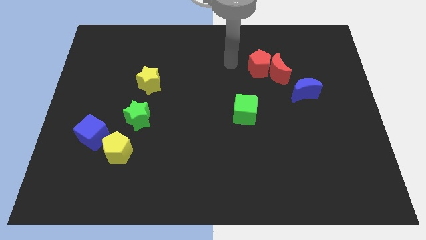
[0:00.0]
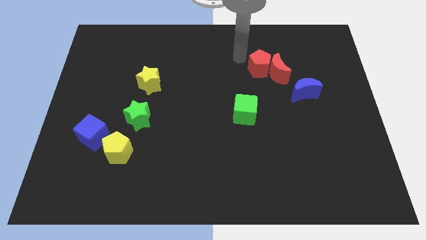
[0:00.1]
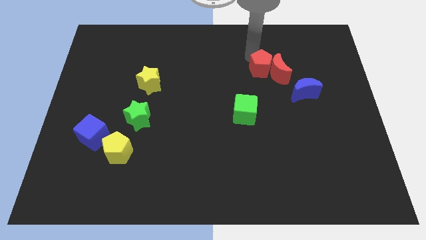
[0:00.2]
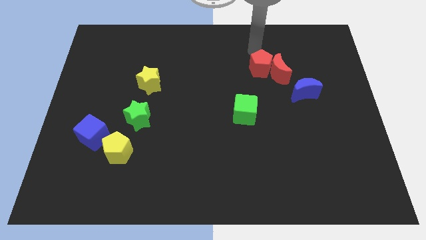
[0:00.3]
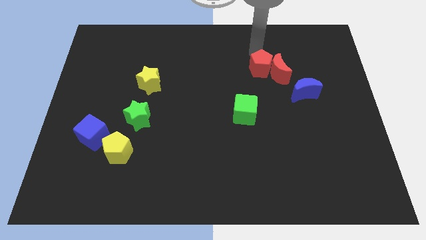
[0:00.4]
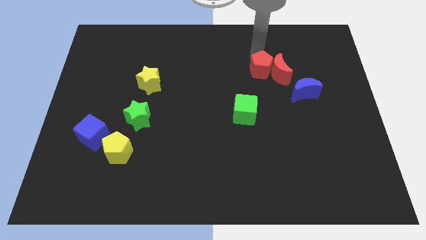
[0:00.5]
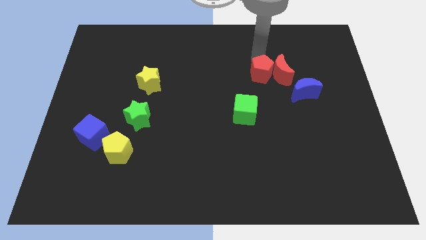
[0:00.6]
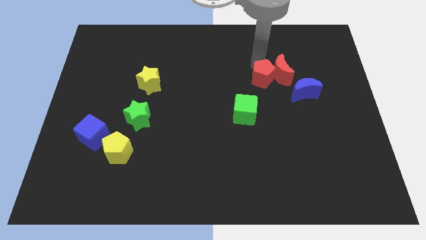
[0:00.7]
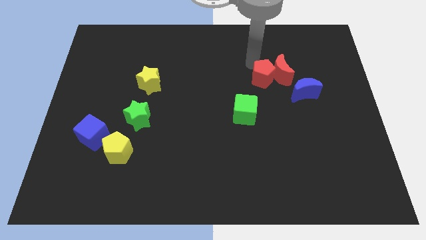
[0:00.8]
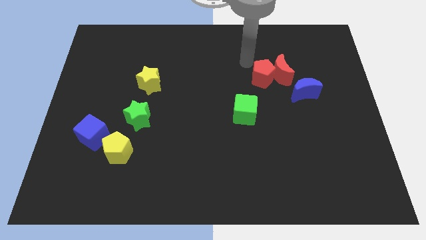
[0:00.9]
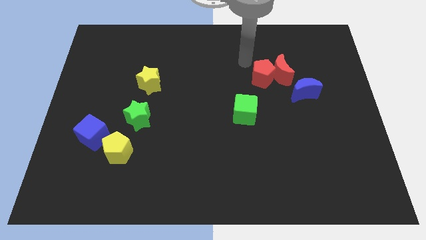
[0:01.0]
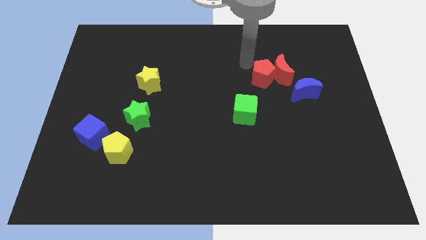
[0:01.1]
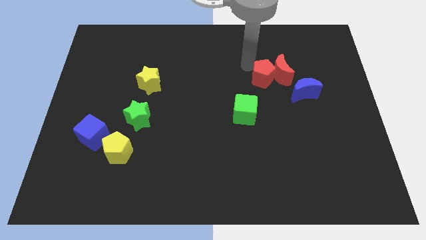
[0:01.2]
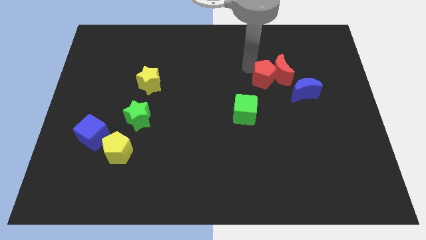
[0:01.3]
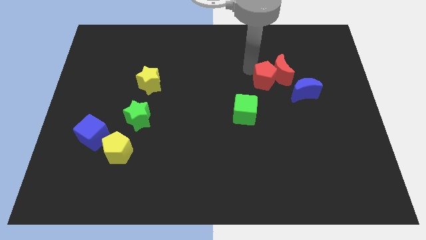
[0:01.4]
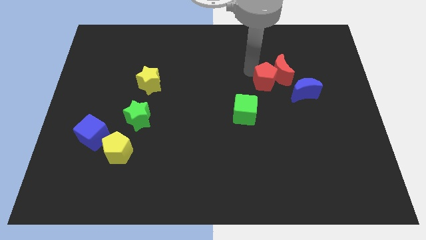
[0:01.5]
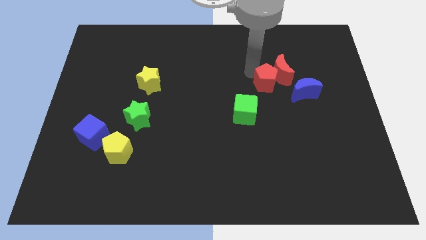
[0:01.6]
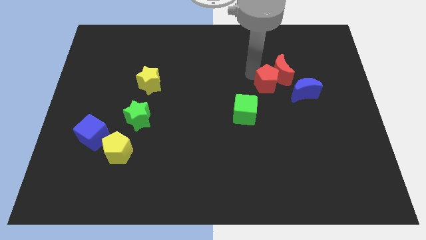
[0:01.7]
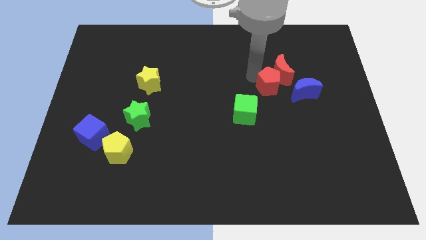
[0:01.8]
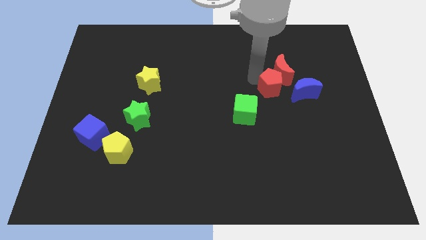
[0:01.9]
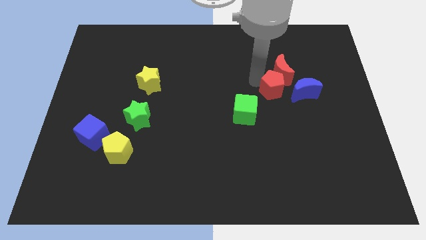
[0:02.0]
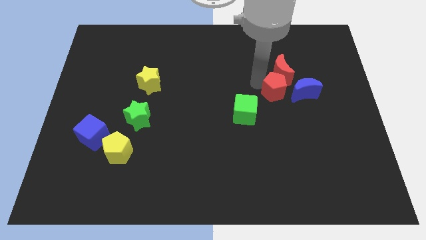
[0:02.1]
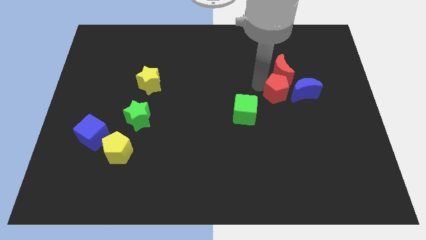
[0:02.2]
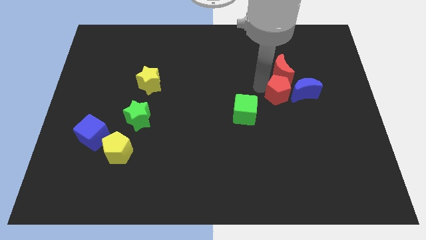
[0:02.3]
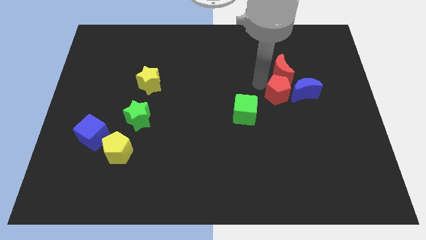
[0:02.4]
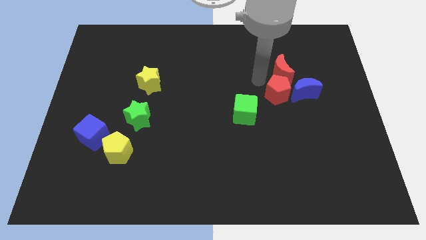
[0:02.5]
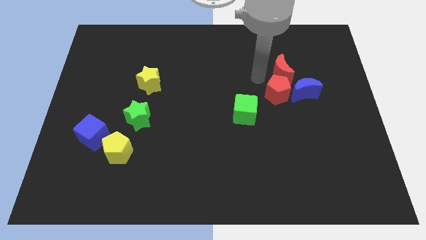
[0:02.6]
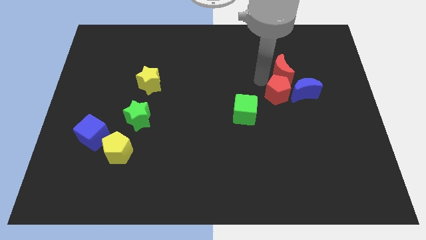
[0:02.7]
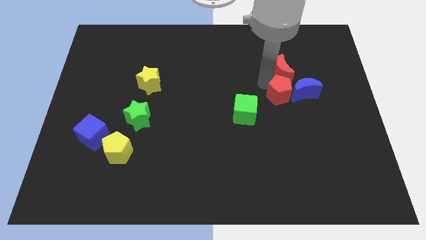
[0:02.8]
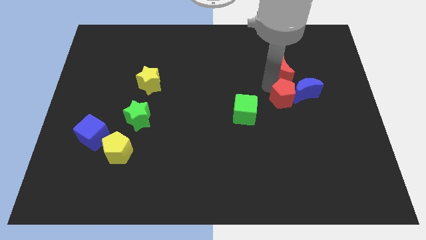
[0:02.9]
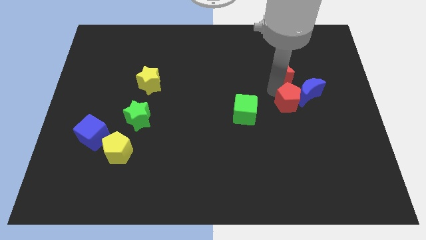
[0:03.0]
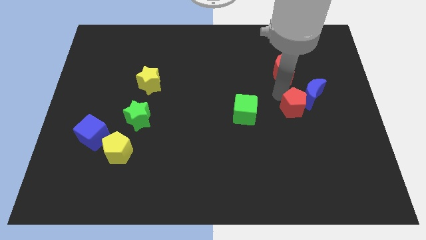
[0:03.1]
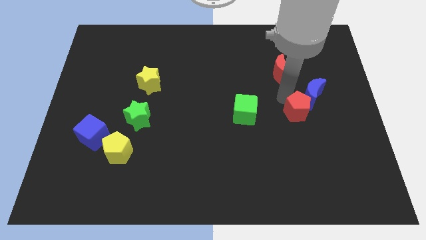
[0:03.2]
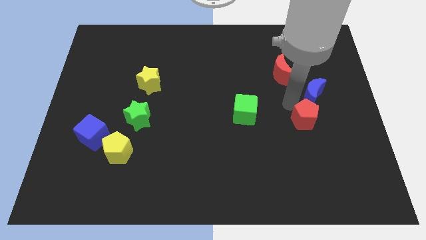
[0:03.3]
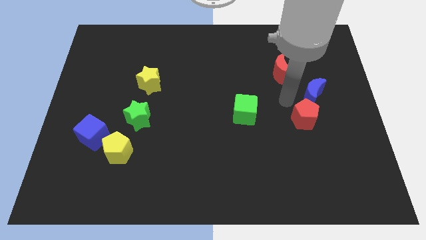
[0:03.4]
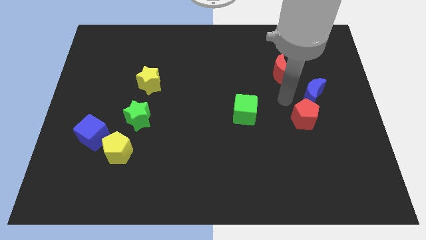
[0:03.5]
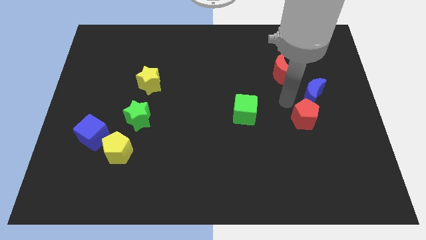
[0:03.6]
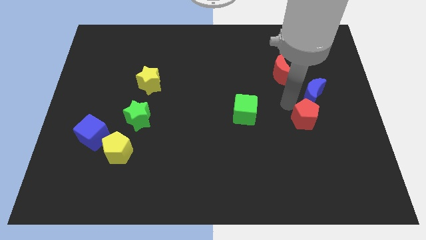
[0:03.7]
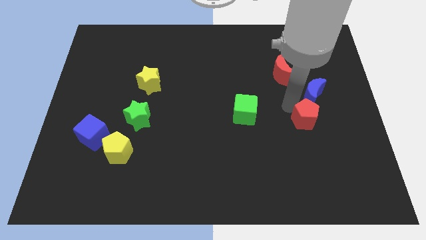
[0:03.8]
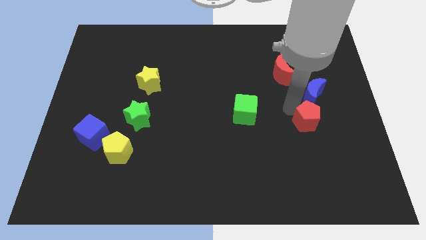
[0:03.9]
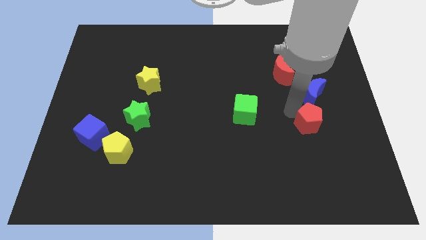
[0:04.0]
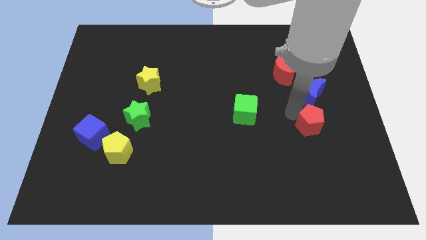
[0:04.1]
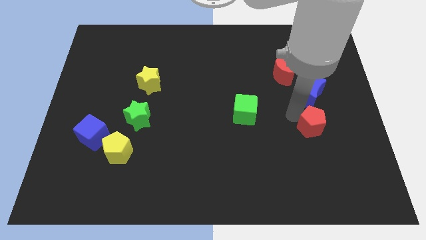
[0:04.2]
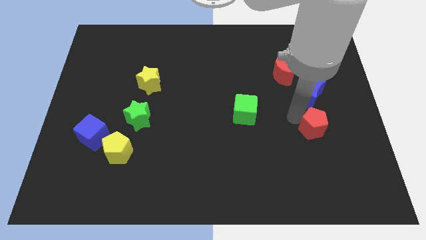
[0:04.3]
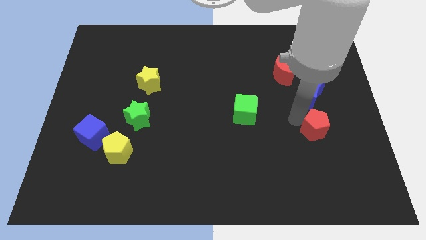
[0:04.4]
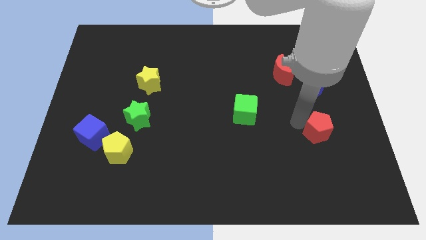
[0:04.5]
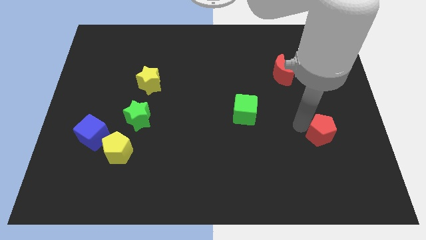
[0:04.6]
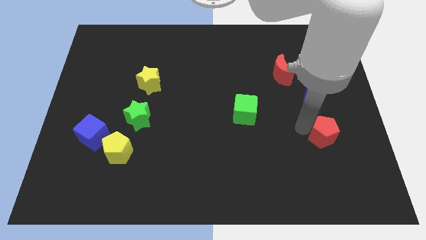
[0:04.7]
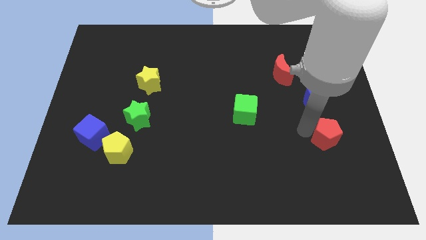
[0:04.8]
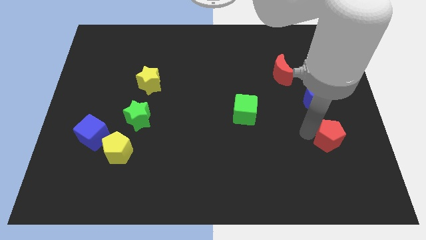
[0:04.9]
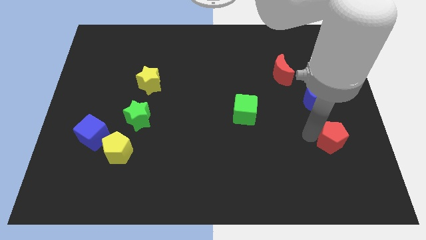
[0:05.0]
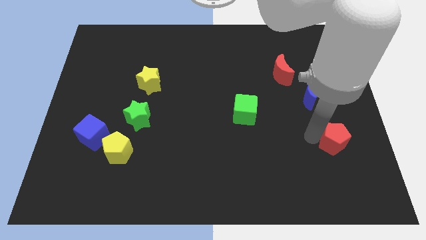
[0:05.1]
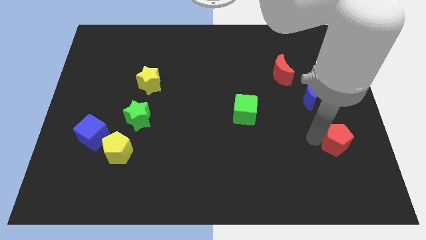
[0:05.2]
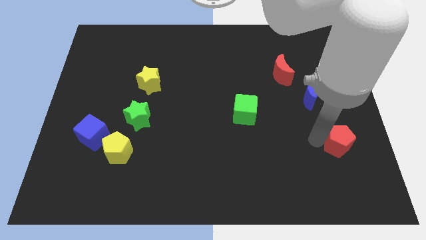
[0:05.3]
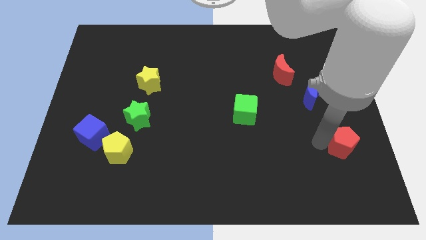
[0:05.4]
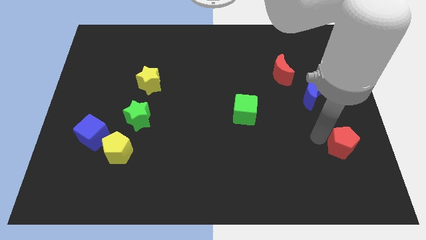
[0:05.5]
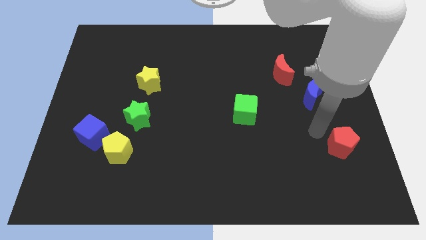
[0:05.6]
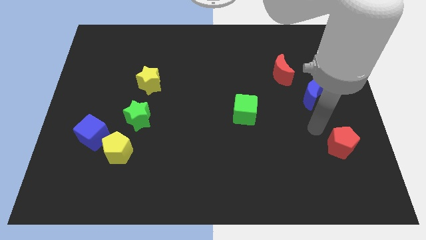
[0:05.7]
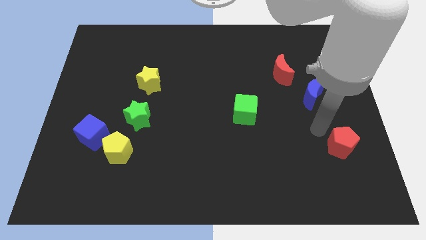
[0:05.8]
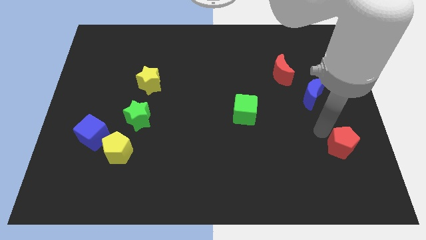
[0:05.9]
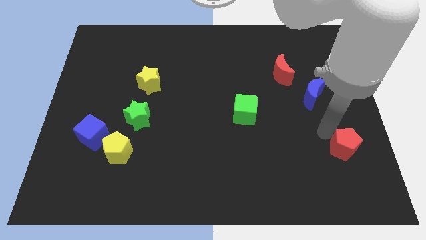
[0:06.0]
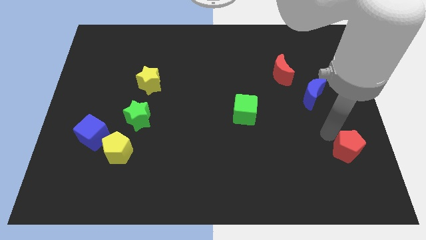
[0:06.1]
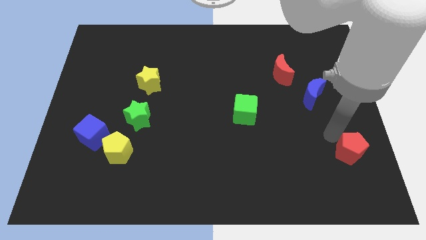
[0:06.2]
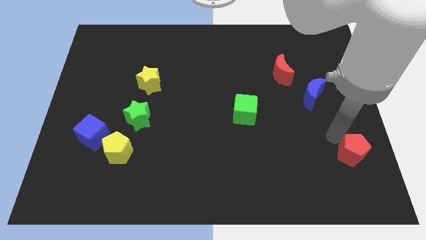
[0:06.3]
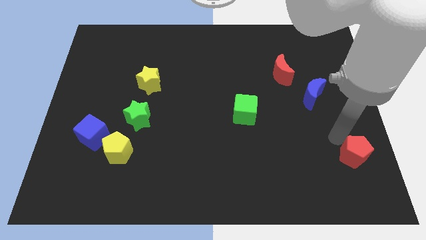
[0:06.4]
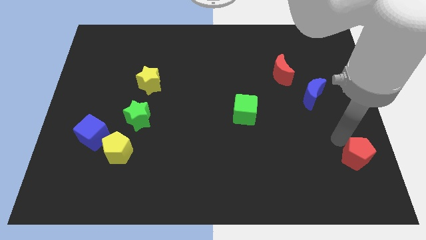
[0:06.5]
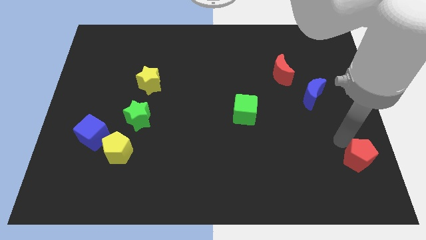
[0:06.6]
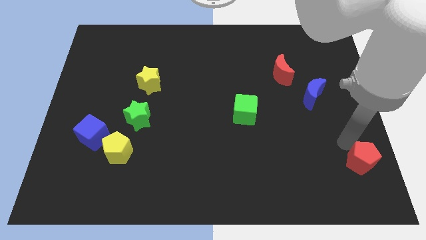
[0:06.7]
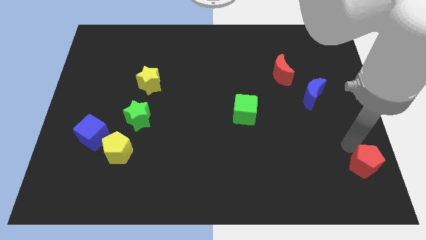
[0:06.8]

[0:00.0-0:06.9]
move the red pentagon to the bottom right of the board
